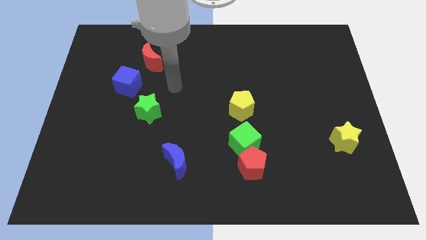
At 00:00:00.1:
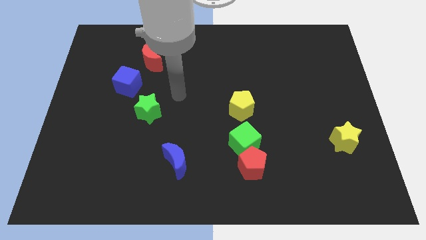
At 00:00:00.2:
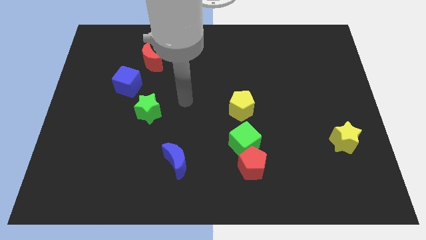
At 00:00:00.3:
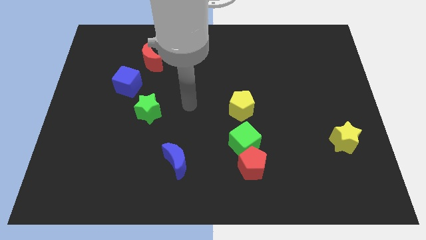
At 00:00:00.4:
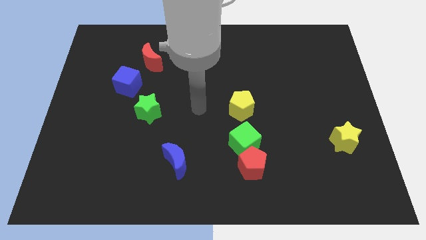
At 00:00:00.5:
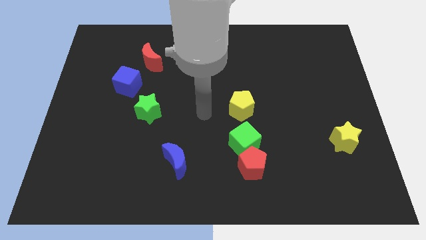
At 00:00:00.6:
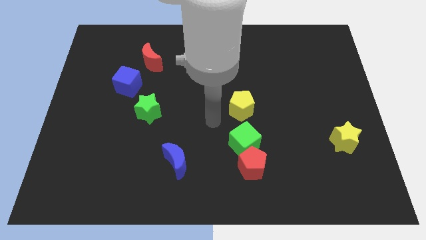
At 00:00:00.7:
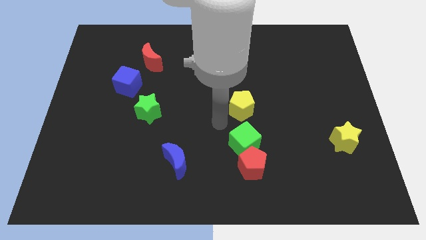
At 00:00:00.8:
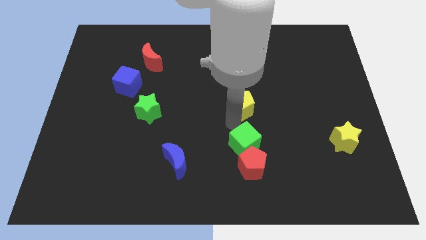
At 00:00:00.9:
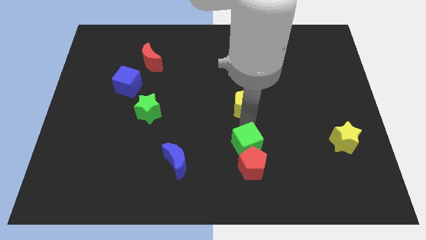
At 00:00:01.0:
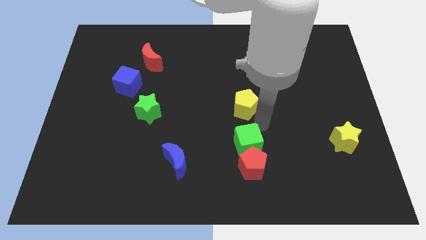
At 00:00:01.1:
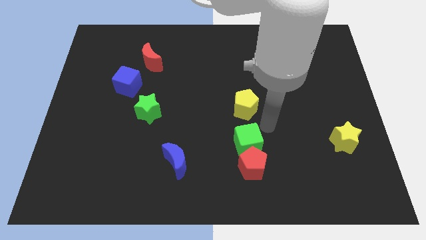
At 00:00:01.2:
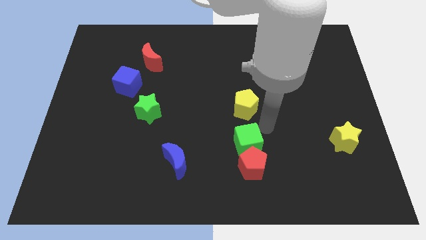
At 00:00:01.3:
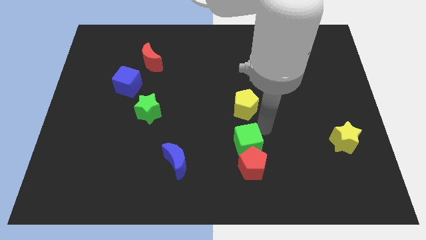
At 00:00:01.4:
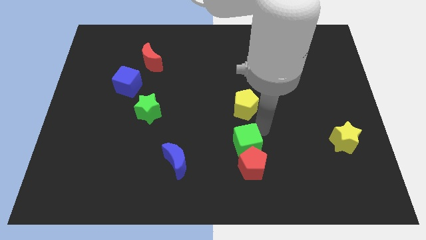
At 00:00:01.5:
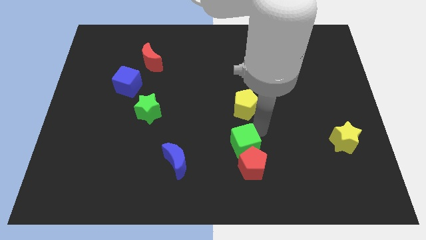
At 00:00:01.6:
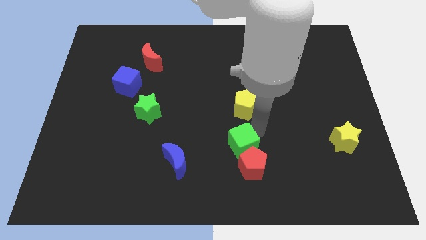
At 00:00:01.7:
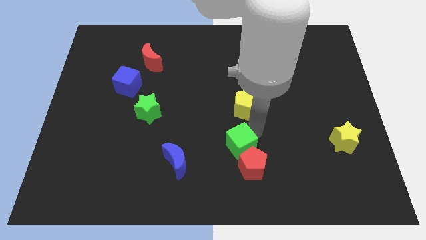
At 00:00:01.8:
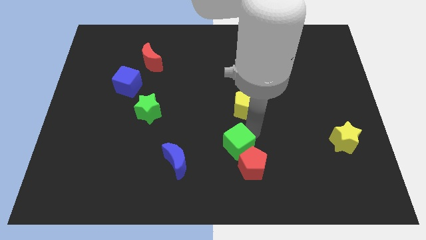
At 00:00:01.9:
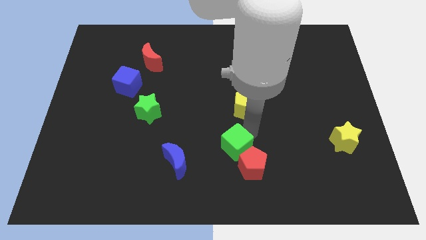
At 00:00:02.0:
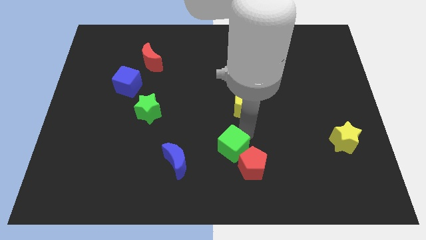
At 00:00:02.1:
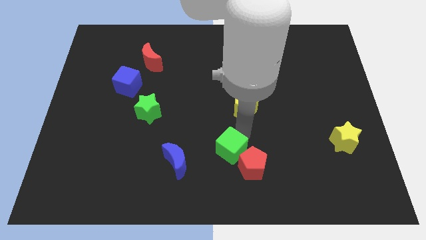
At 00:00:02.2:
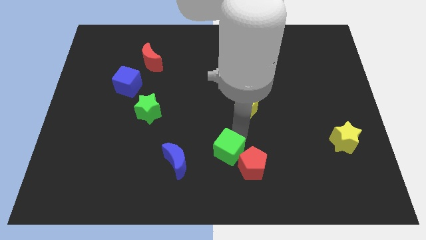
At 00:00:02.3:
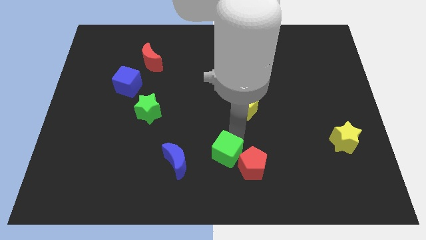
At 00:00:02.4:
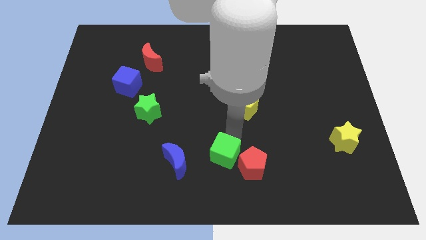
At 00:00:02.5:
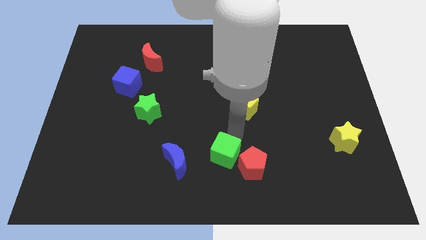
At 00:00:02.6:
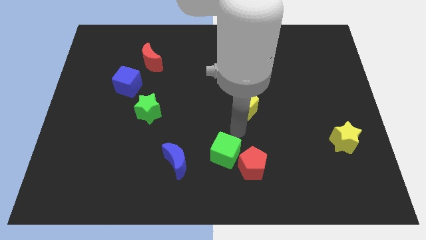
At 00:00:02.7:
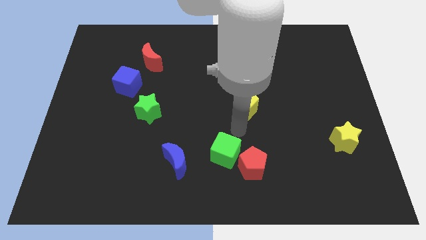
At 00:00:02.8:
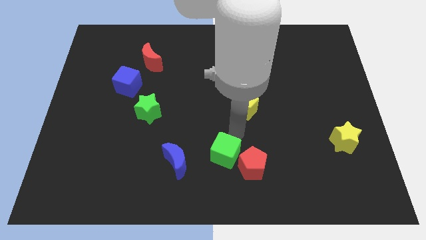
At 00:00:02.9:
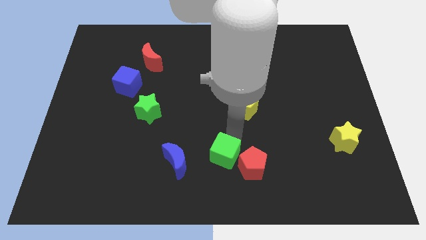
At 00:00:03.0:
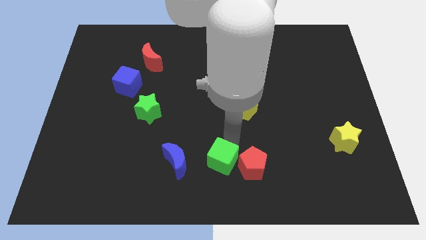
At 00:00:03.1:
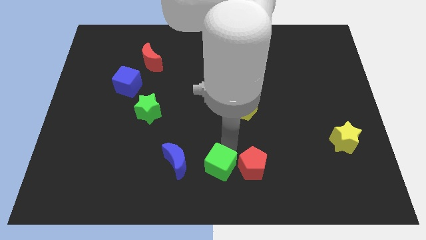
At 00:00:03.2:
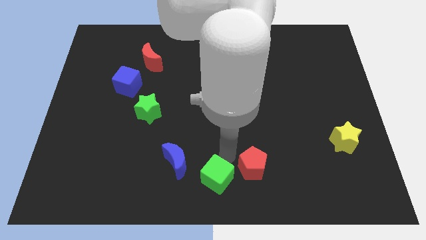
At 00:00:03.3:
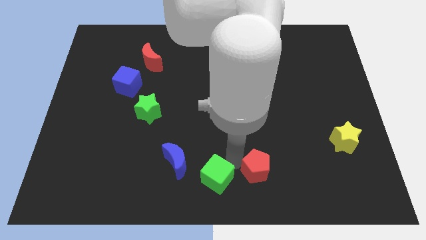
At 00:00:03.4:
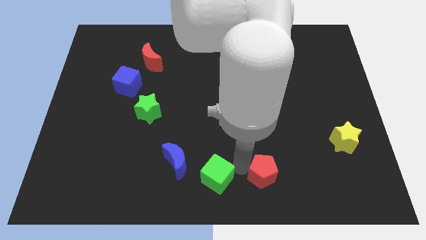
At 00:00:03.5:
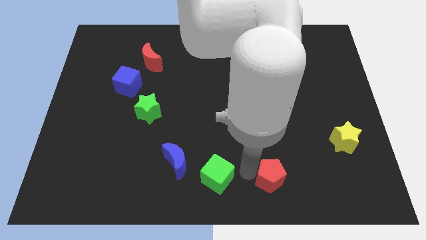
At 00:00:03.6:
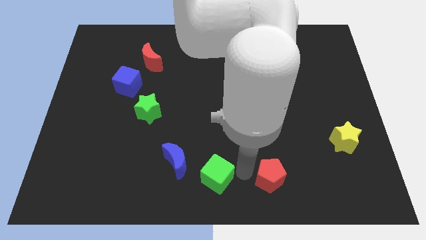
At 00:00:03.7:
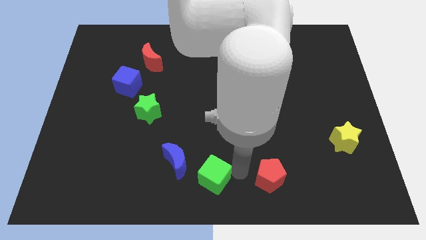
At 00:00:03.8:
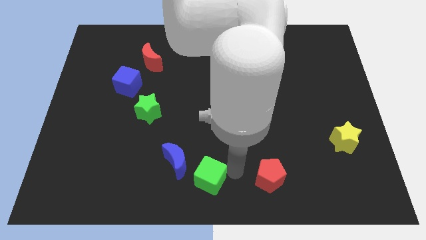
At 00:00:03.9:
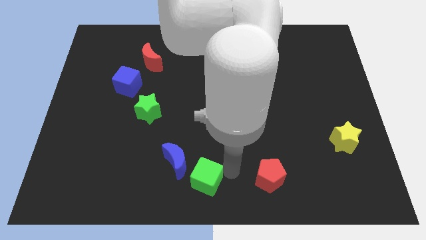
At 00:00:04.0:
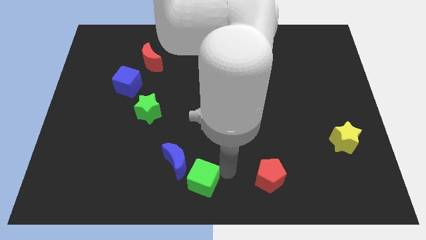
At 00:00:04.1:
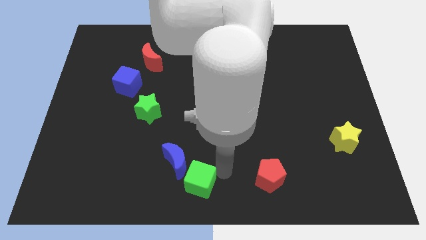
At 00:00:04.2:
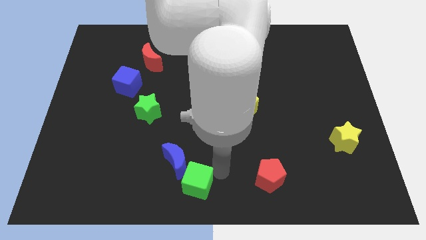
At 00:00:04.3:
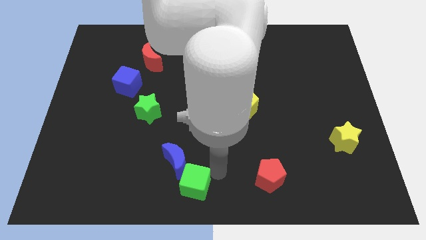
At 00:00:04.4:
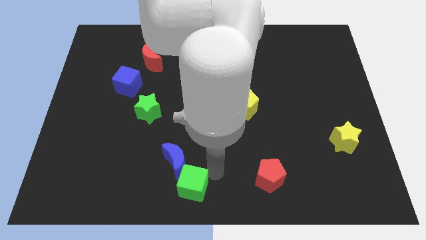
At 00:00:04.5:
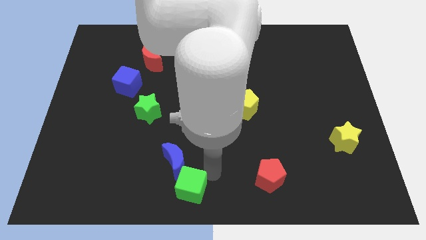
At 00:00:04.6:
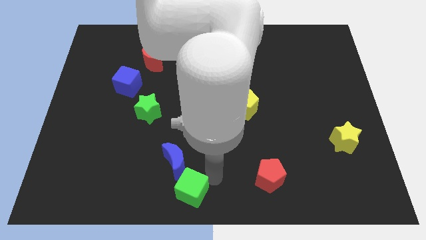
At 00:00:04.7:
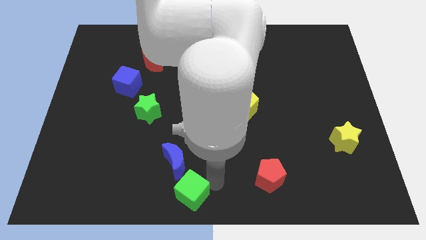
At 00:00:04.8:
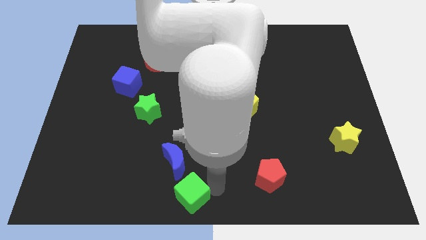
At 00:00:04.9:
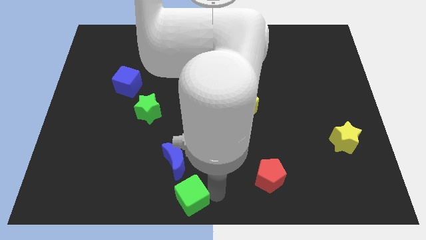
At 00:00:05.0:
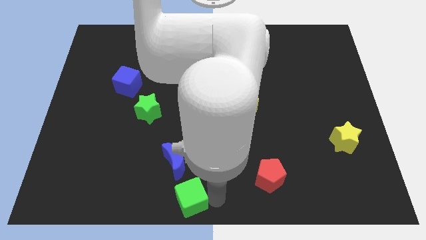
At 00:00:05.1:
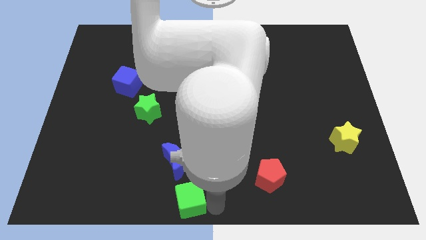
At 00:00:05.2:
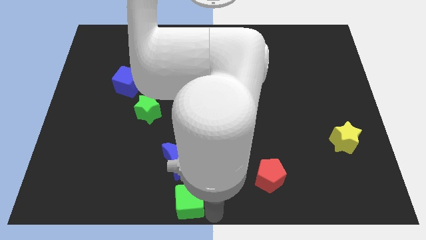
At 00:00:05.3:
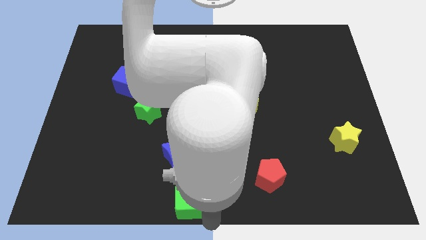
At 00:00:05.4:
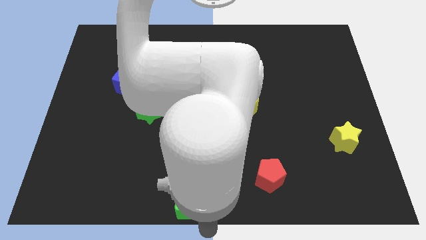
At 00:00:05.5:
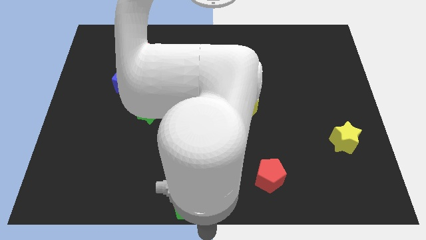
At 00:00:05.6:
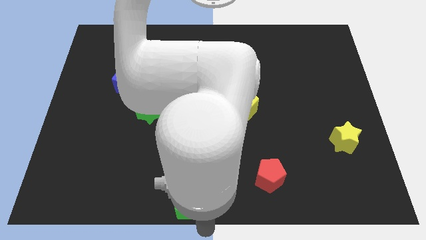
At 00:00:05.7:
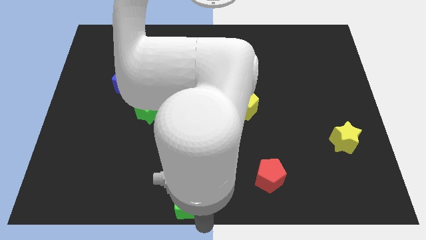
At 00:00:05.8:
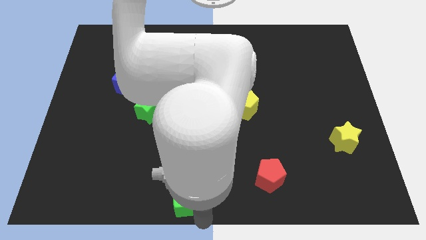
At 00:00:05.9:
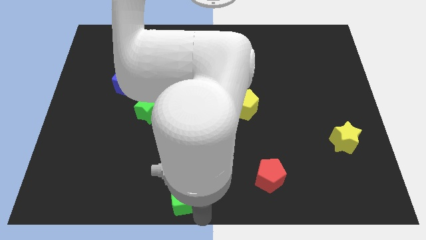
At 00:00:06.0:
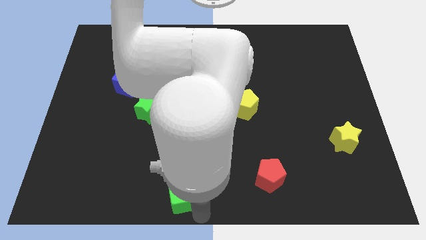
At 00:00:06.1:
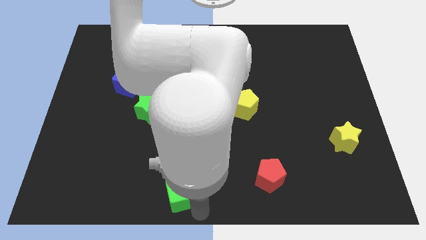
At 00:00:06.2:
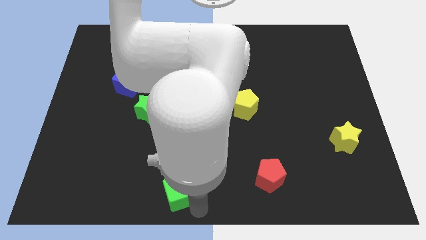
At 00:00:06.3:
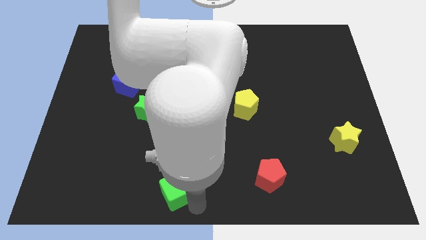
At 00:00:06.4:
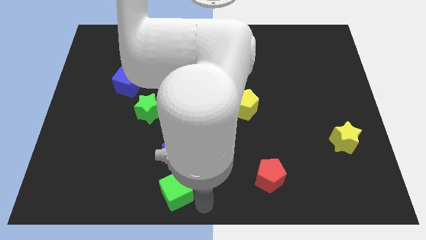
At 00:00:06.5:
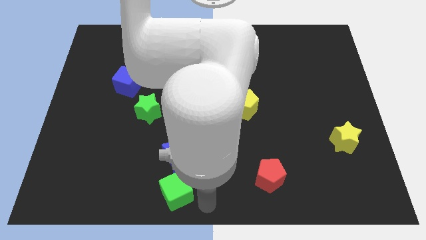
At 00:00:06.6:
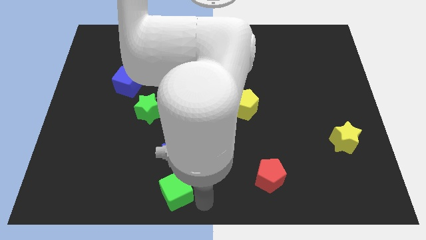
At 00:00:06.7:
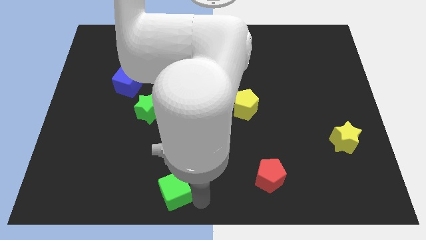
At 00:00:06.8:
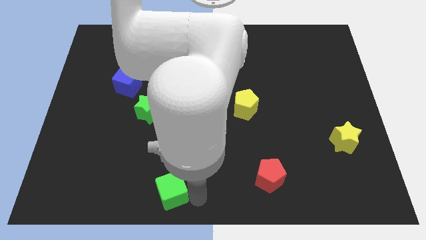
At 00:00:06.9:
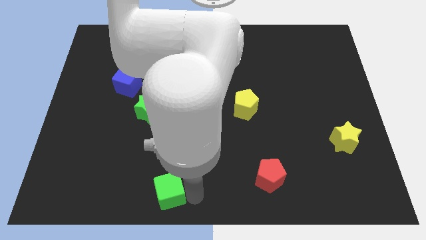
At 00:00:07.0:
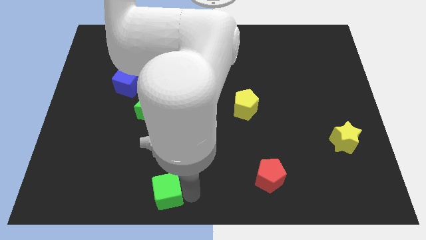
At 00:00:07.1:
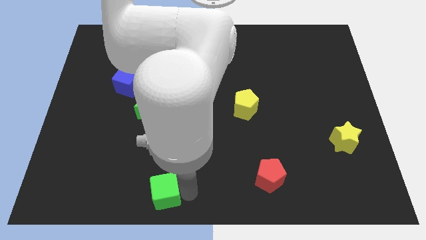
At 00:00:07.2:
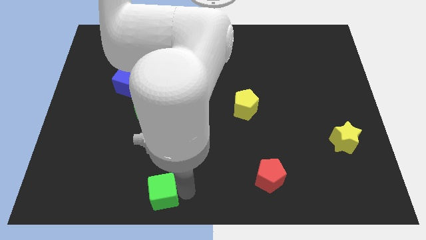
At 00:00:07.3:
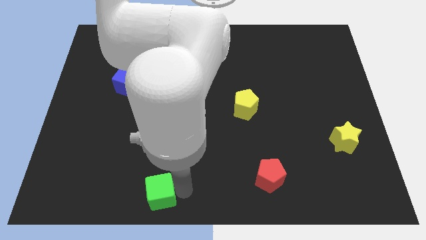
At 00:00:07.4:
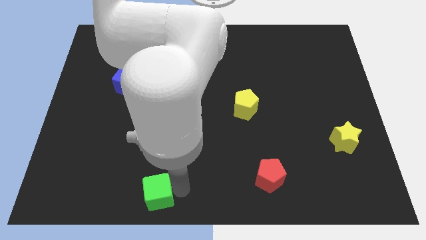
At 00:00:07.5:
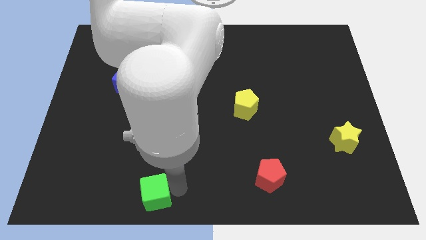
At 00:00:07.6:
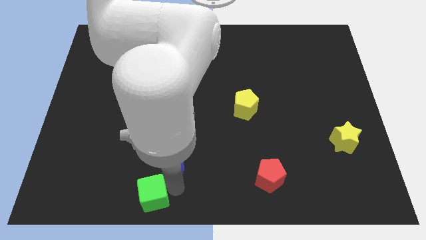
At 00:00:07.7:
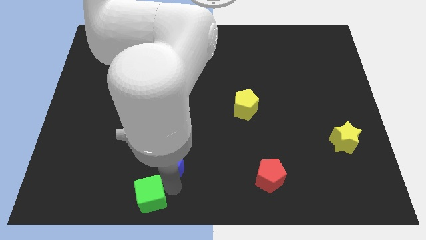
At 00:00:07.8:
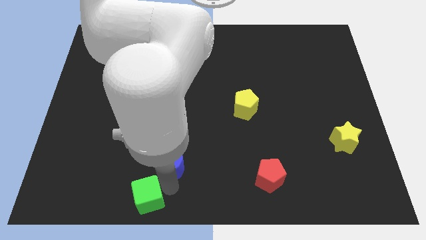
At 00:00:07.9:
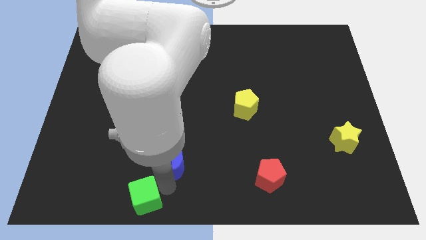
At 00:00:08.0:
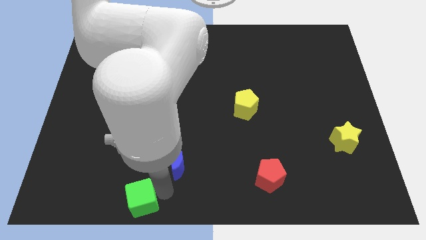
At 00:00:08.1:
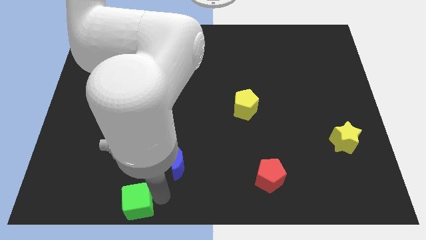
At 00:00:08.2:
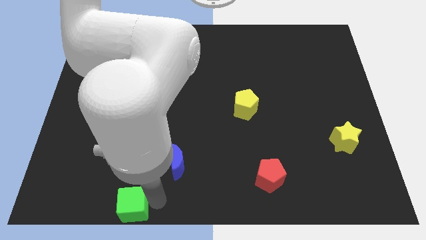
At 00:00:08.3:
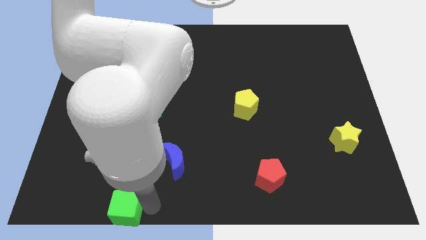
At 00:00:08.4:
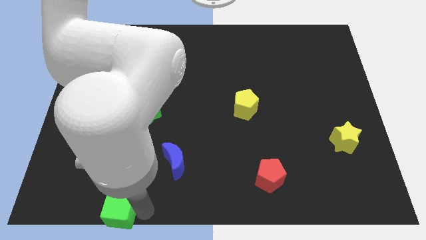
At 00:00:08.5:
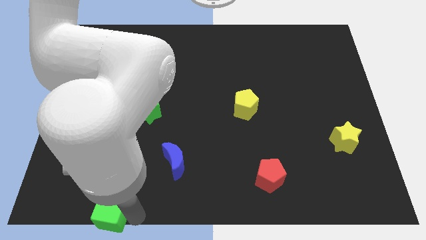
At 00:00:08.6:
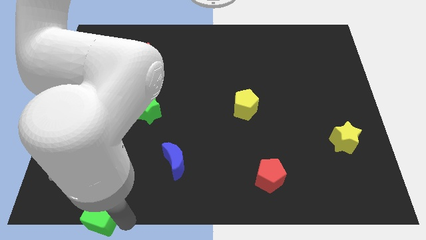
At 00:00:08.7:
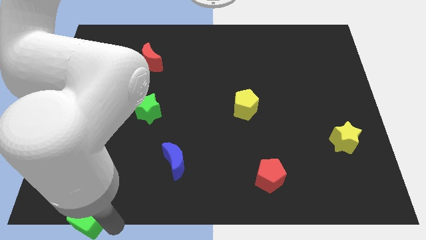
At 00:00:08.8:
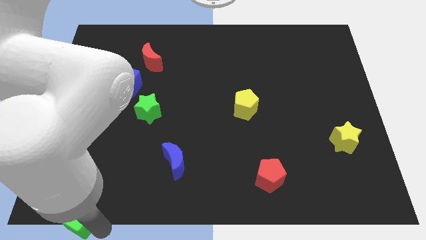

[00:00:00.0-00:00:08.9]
move the green cube to the bottom left corner
